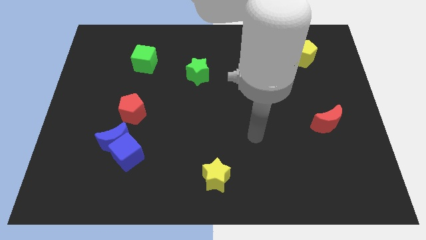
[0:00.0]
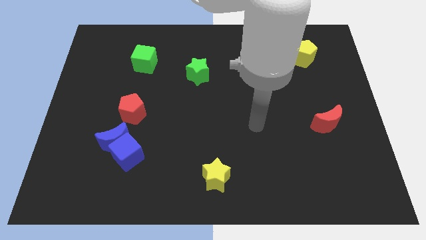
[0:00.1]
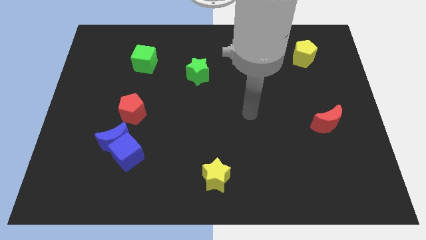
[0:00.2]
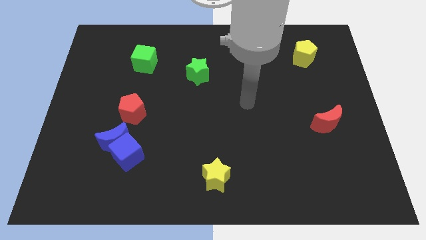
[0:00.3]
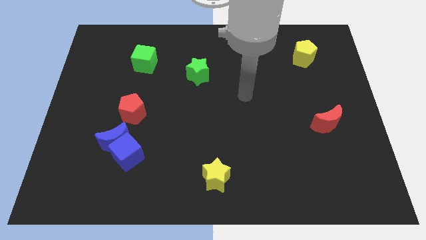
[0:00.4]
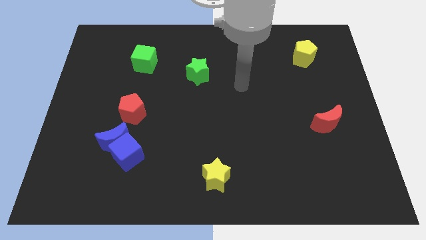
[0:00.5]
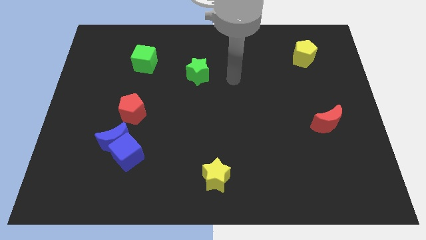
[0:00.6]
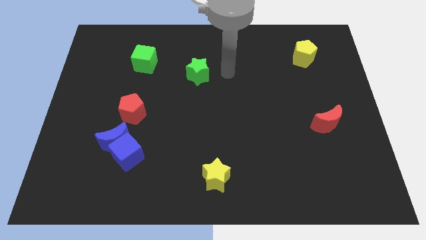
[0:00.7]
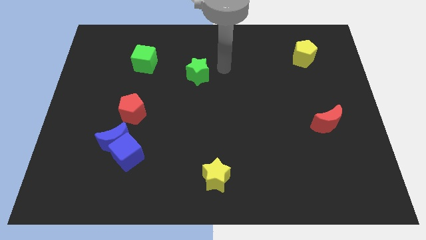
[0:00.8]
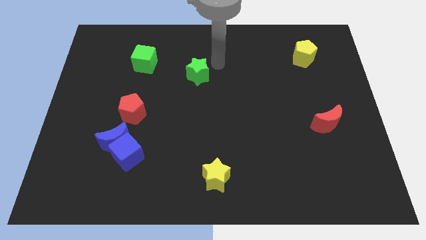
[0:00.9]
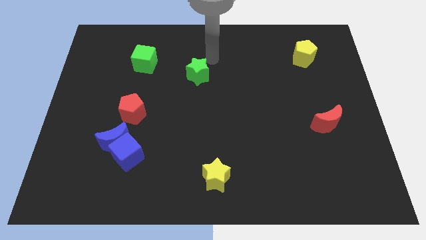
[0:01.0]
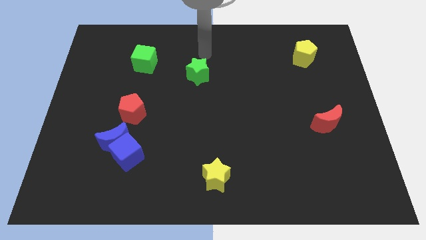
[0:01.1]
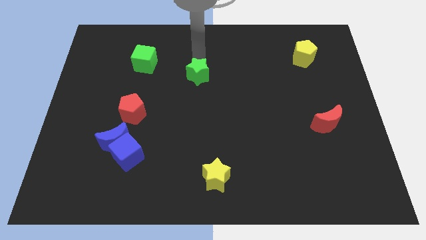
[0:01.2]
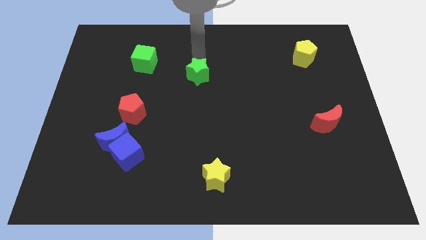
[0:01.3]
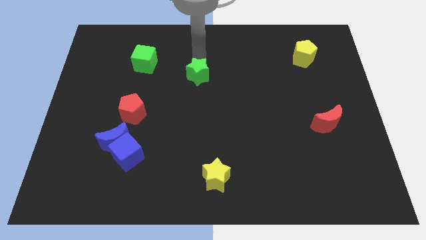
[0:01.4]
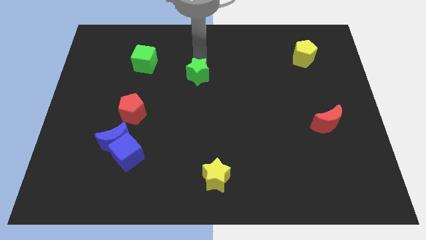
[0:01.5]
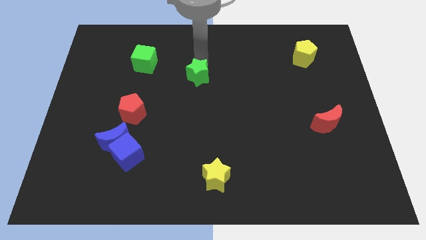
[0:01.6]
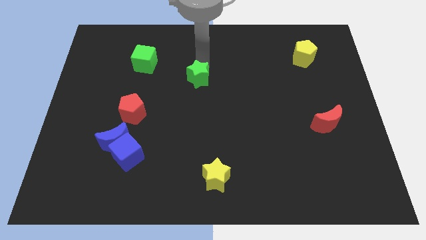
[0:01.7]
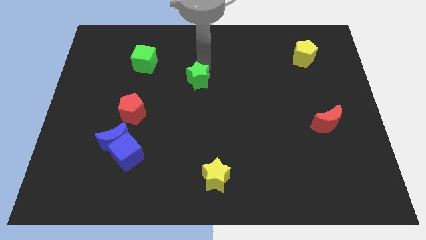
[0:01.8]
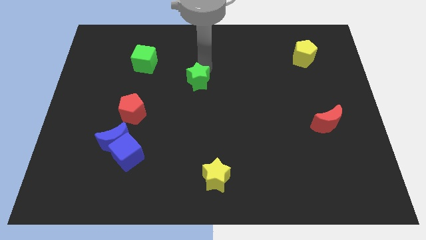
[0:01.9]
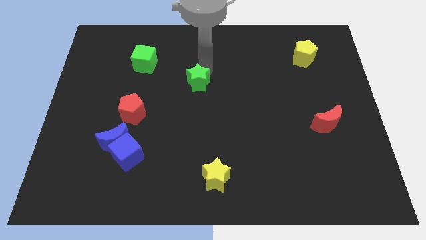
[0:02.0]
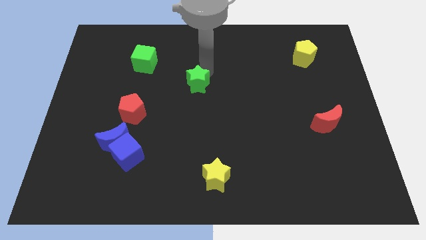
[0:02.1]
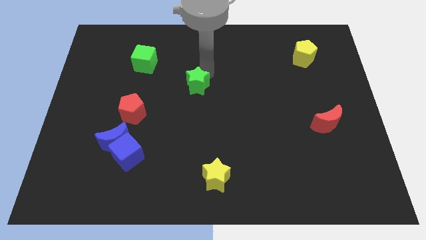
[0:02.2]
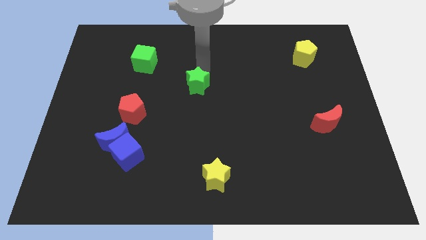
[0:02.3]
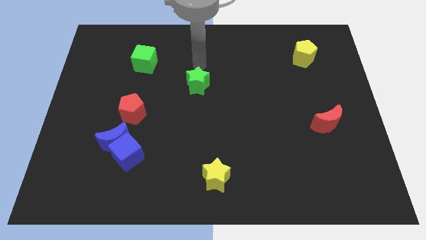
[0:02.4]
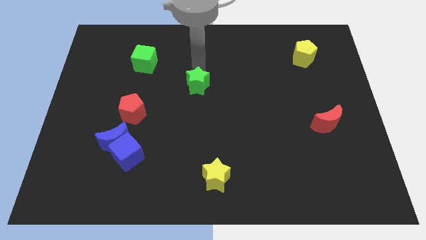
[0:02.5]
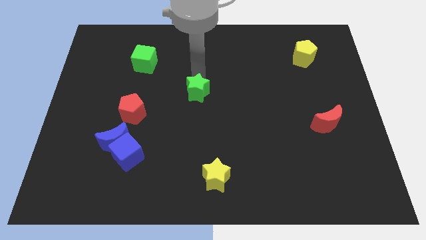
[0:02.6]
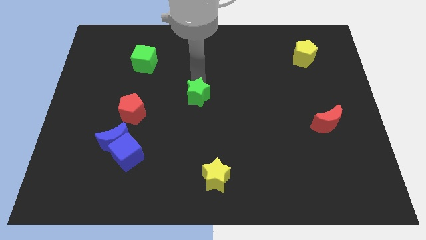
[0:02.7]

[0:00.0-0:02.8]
slightly move the green star downwards

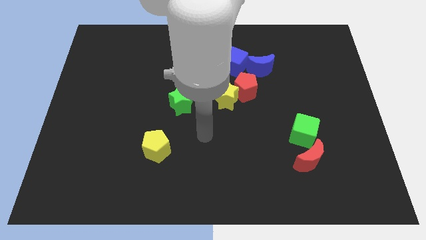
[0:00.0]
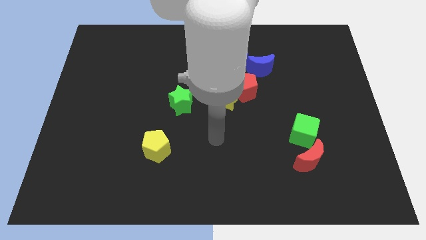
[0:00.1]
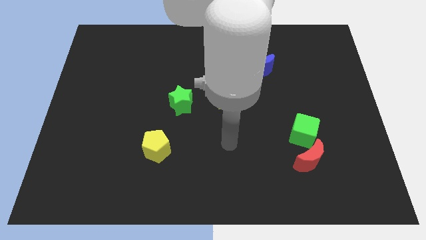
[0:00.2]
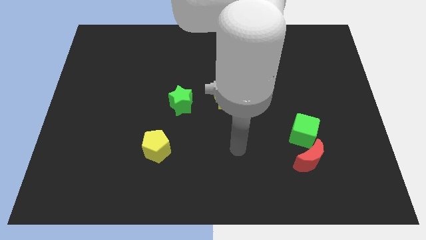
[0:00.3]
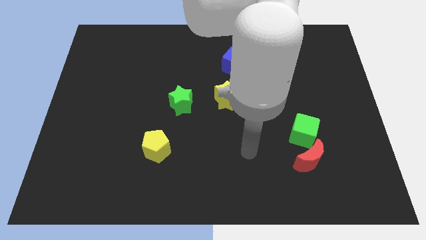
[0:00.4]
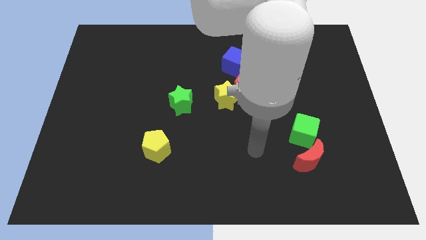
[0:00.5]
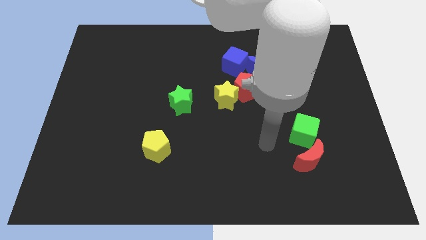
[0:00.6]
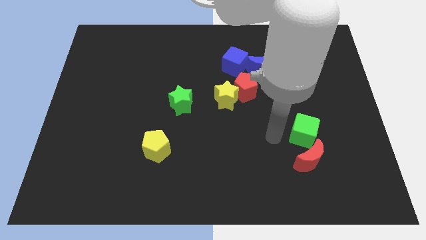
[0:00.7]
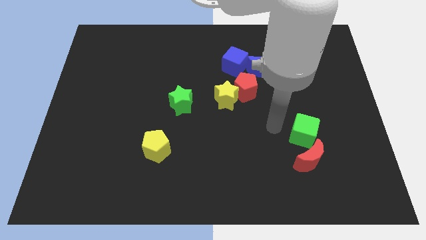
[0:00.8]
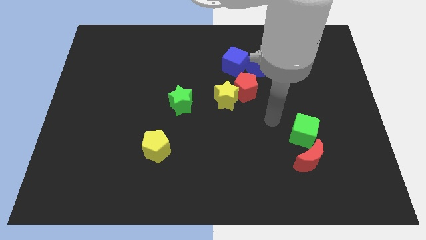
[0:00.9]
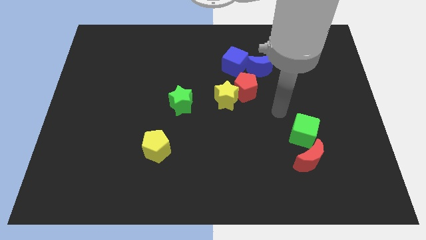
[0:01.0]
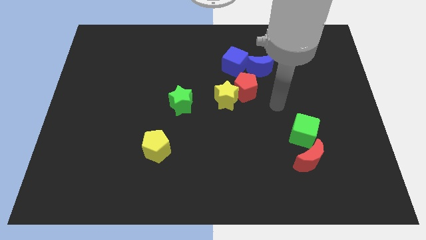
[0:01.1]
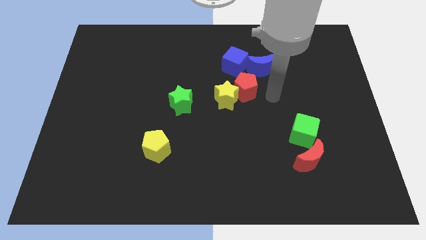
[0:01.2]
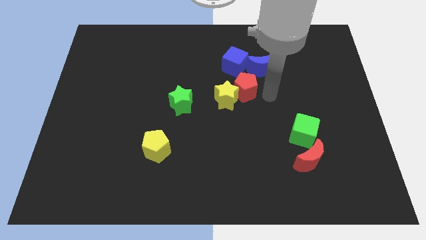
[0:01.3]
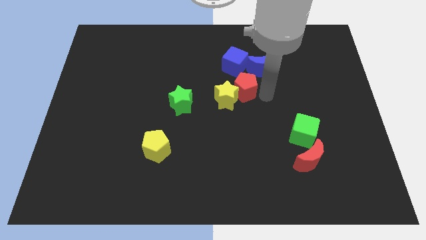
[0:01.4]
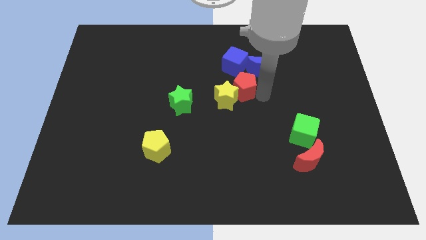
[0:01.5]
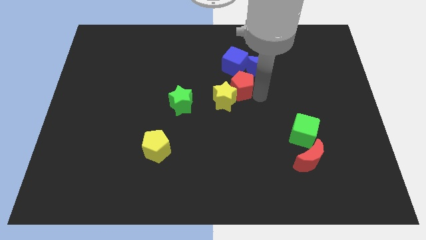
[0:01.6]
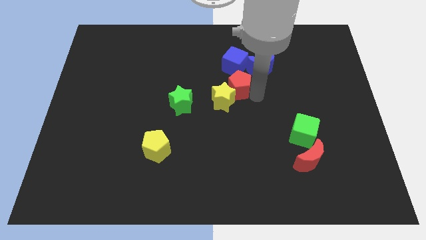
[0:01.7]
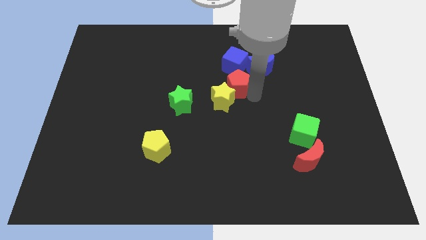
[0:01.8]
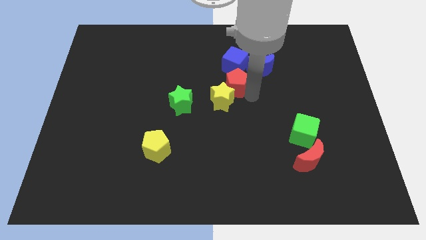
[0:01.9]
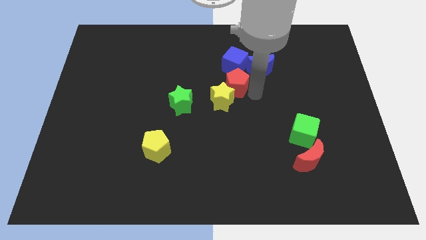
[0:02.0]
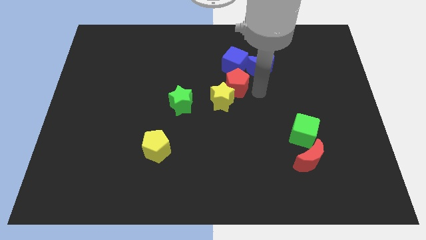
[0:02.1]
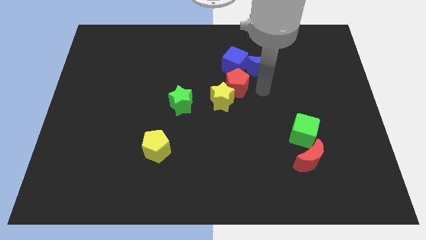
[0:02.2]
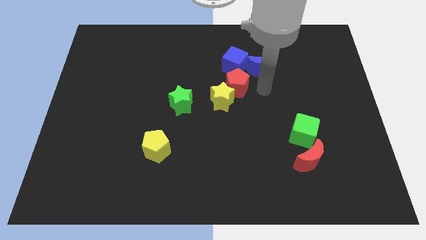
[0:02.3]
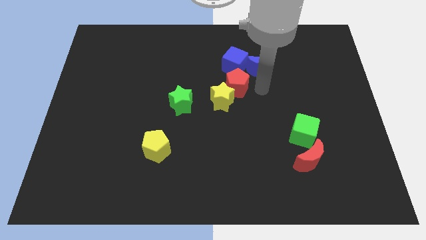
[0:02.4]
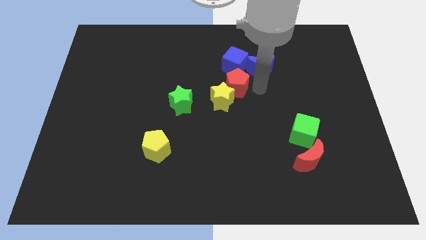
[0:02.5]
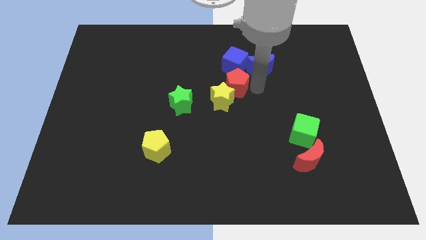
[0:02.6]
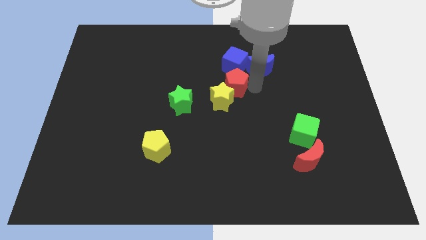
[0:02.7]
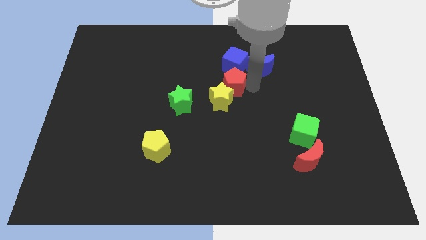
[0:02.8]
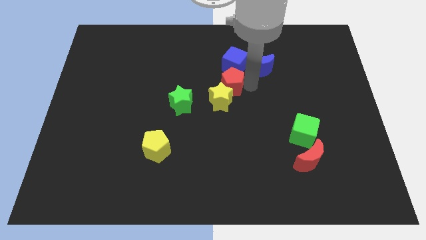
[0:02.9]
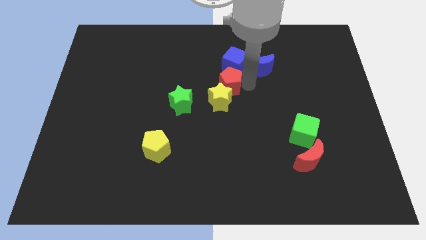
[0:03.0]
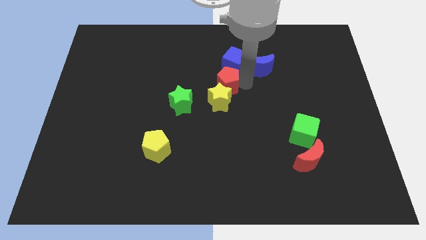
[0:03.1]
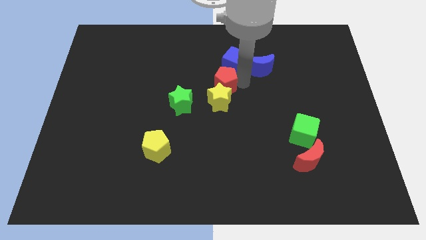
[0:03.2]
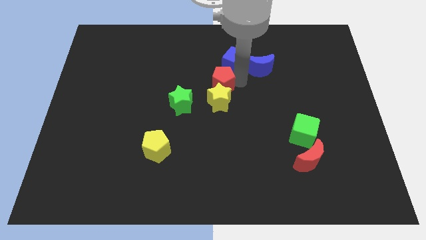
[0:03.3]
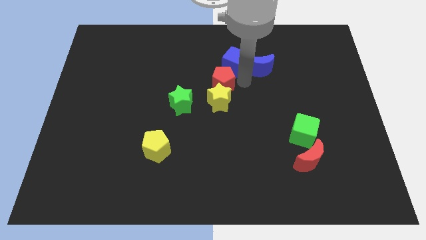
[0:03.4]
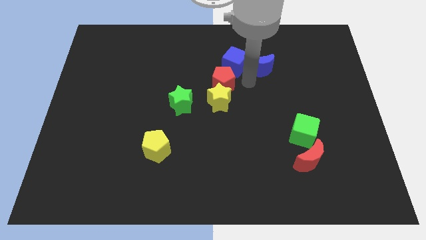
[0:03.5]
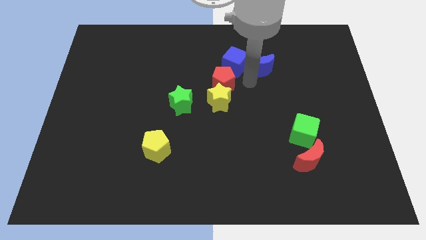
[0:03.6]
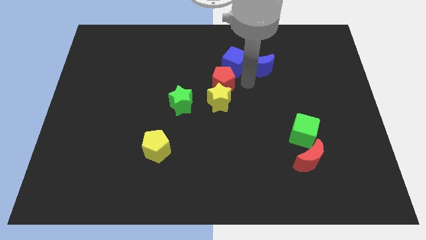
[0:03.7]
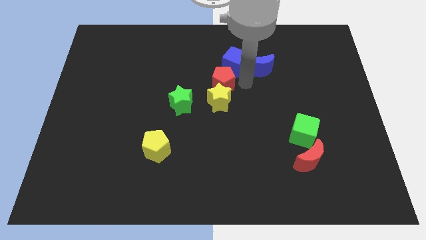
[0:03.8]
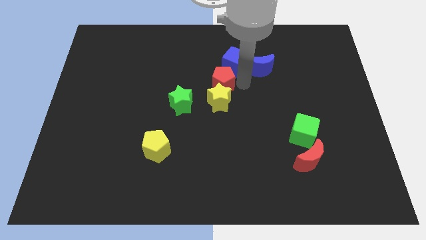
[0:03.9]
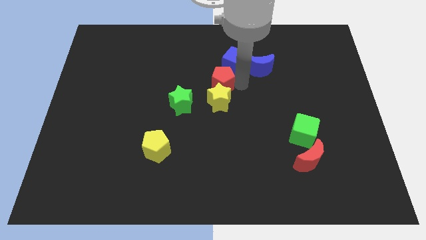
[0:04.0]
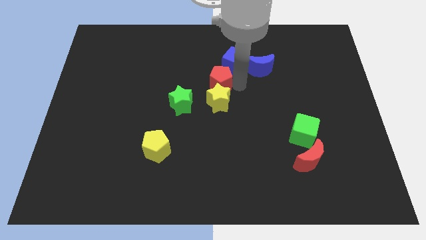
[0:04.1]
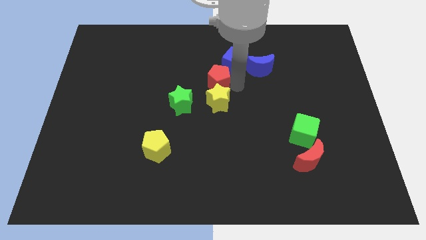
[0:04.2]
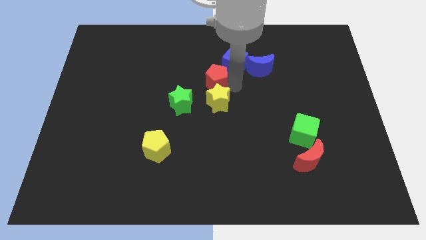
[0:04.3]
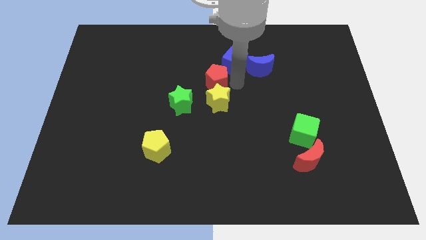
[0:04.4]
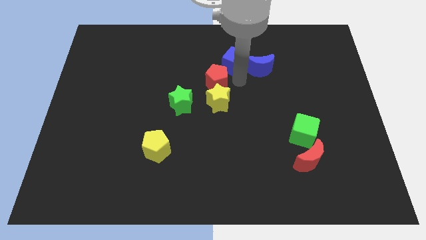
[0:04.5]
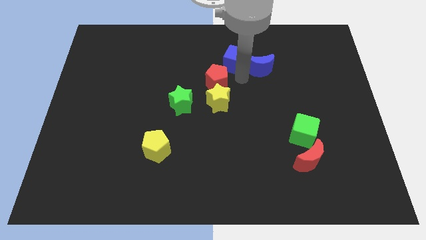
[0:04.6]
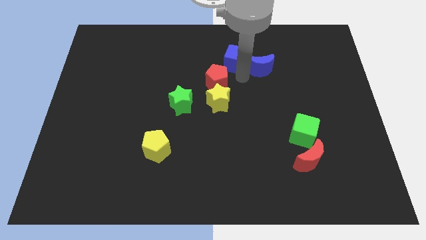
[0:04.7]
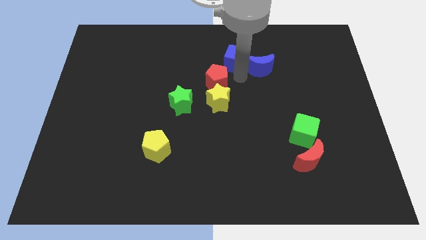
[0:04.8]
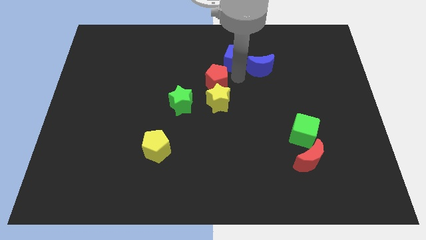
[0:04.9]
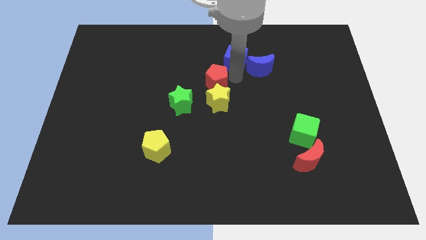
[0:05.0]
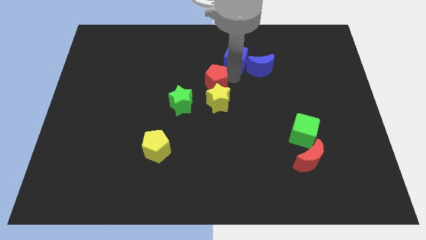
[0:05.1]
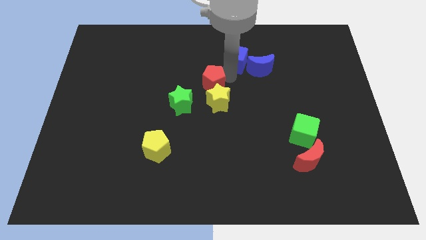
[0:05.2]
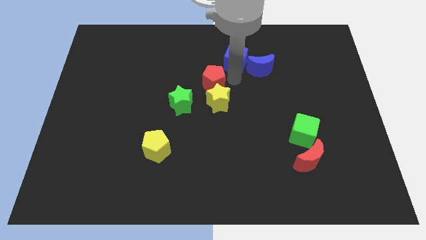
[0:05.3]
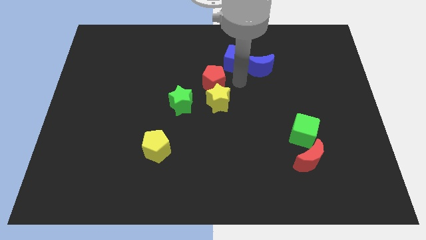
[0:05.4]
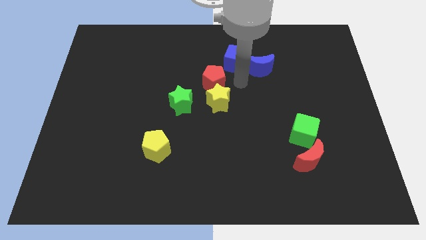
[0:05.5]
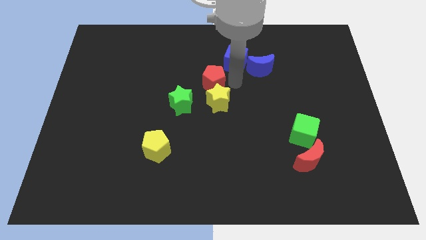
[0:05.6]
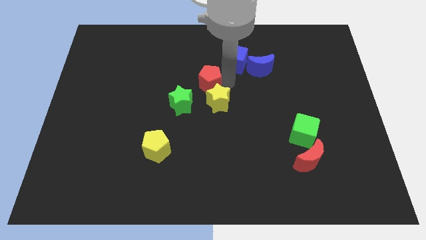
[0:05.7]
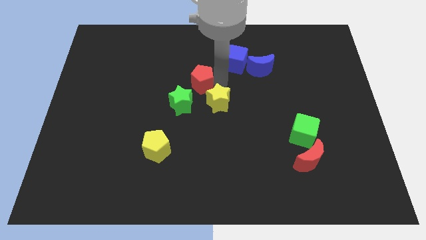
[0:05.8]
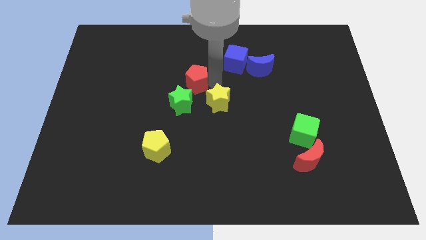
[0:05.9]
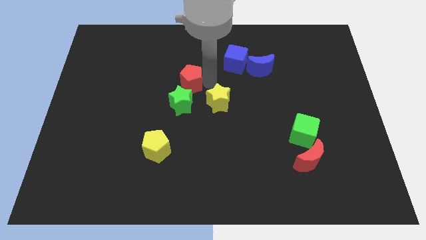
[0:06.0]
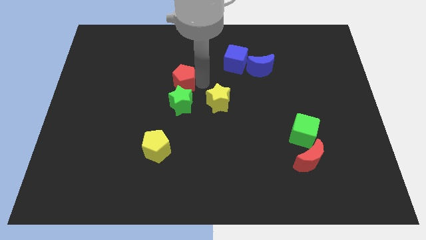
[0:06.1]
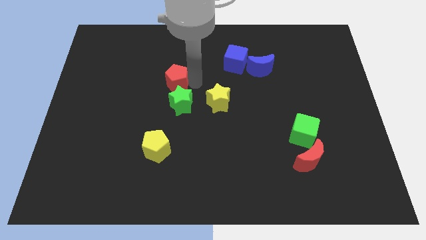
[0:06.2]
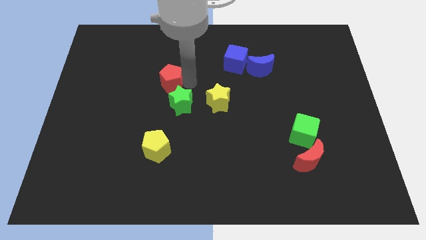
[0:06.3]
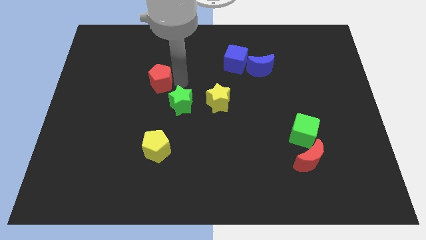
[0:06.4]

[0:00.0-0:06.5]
slide the red pentagon left
